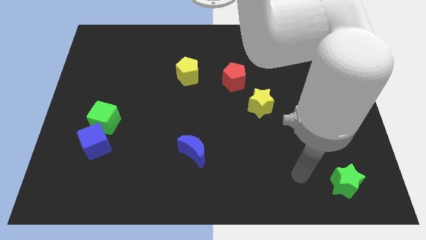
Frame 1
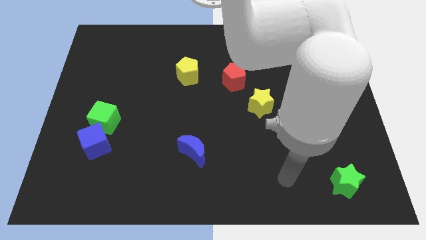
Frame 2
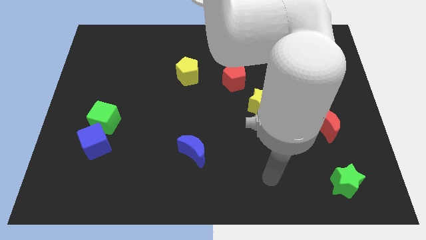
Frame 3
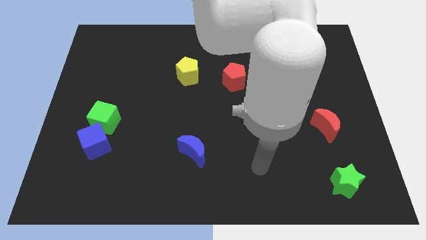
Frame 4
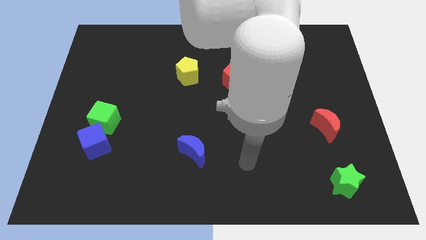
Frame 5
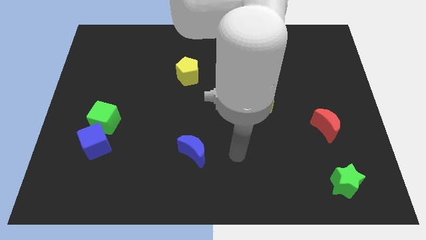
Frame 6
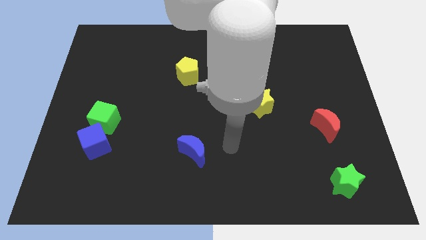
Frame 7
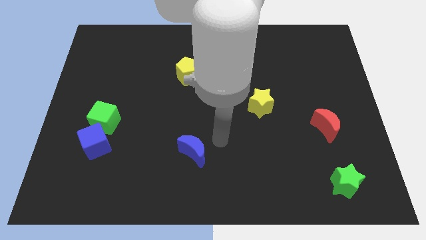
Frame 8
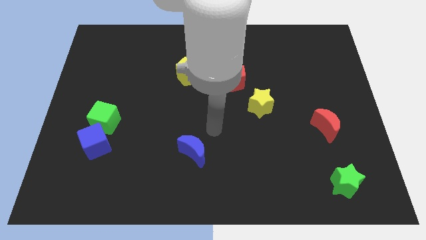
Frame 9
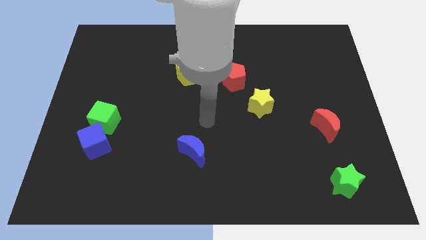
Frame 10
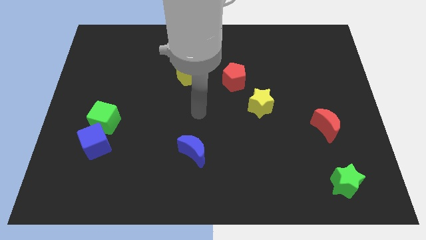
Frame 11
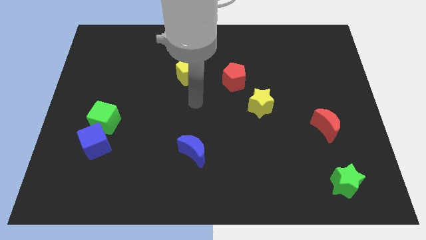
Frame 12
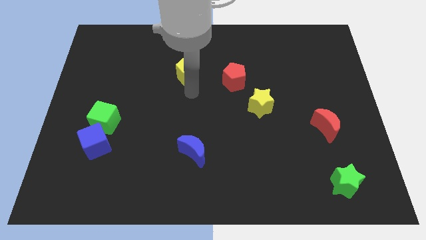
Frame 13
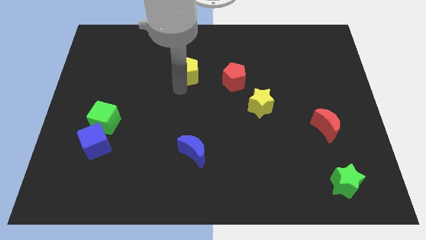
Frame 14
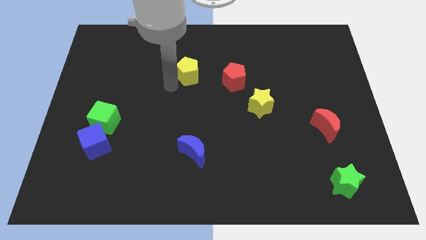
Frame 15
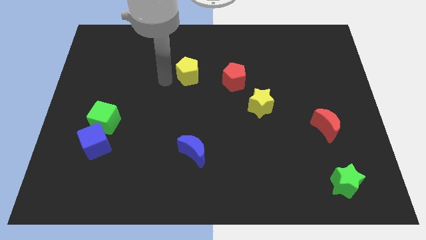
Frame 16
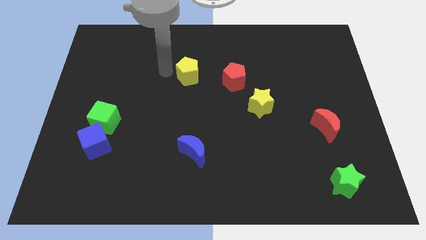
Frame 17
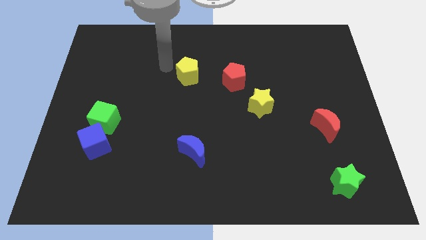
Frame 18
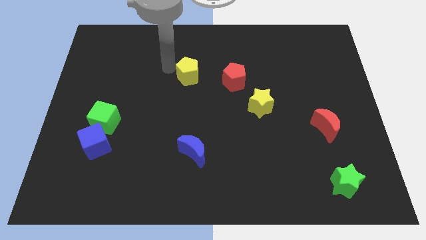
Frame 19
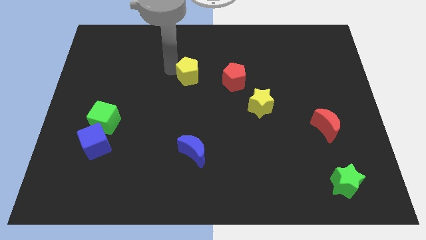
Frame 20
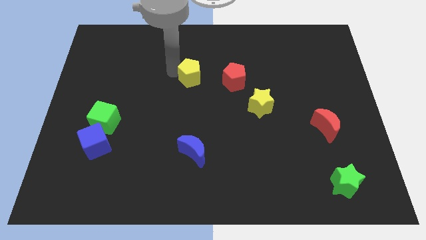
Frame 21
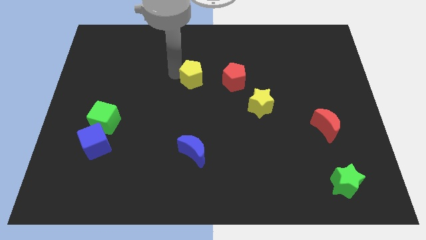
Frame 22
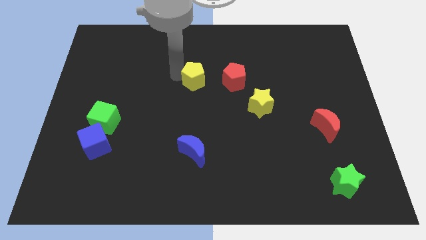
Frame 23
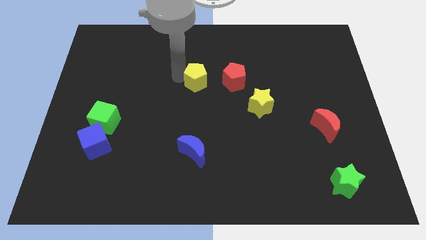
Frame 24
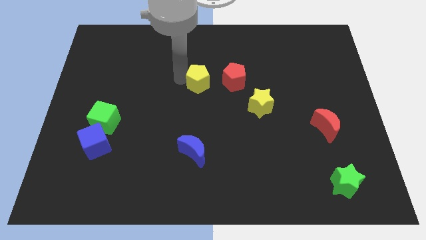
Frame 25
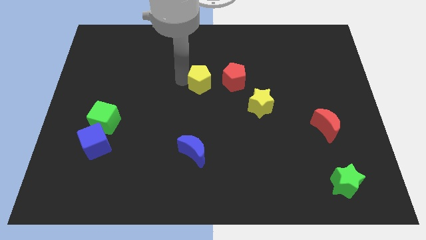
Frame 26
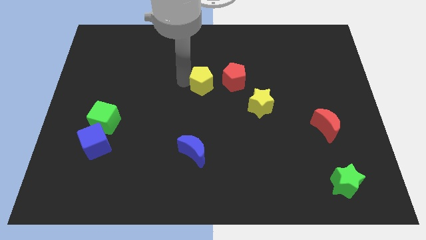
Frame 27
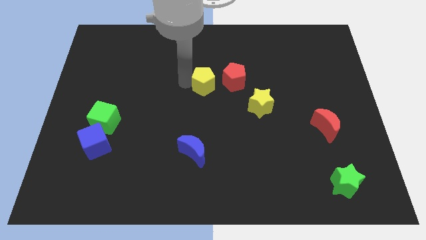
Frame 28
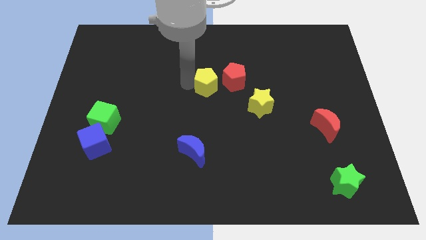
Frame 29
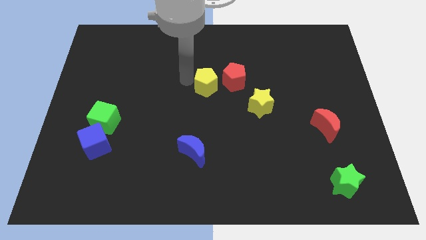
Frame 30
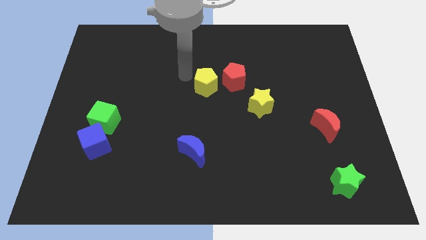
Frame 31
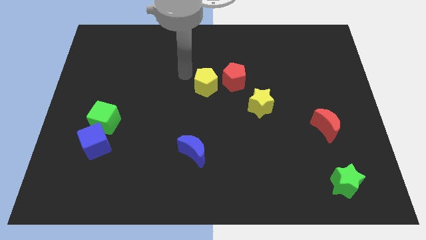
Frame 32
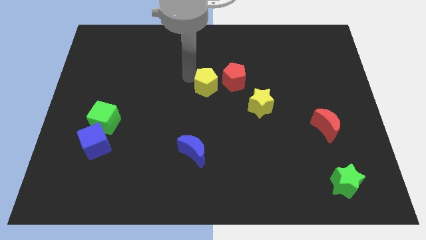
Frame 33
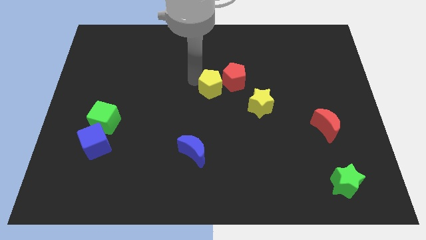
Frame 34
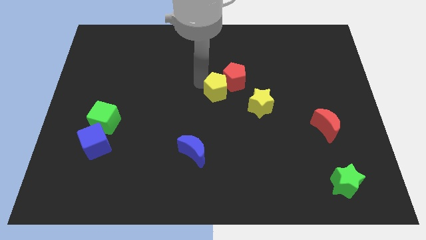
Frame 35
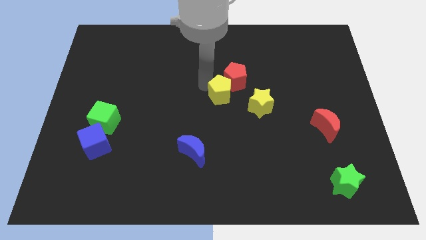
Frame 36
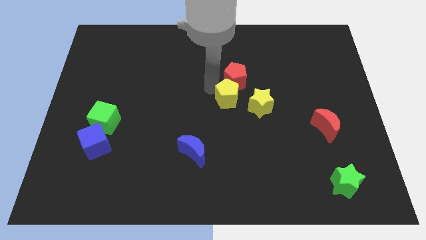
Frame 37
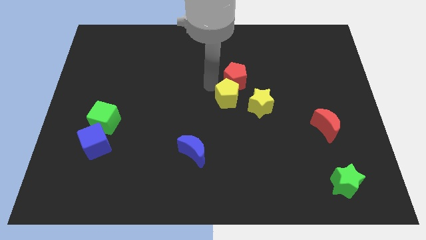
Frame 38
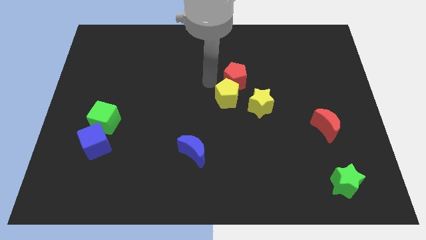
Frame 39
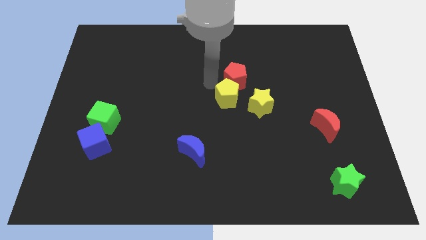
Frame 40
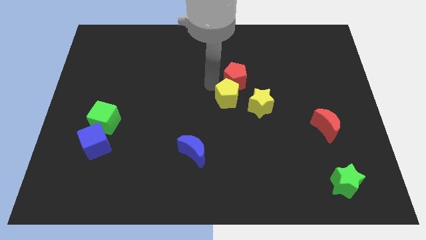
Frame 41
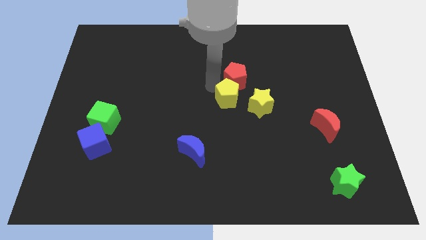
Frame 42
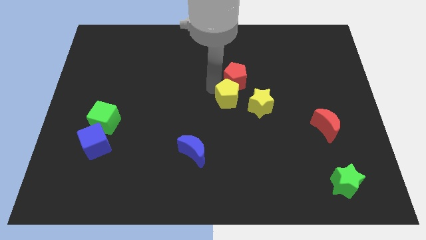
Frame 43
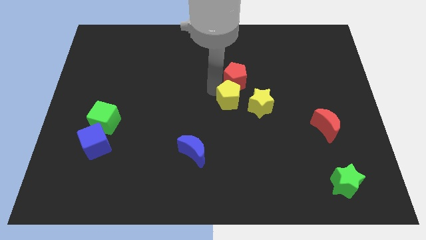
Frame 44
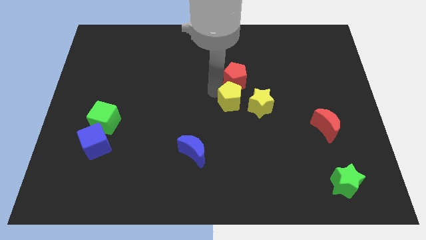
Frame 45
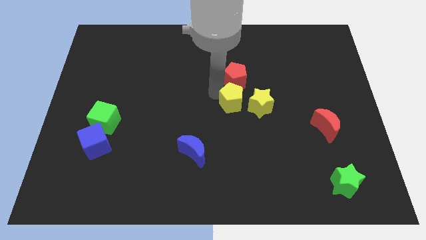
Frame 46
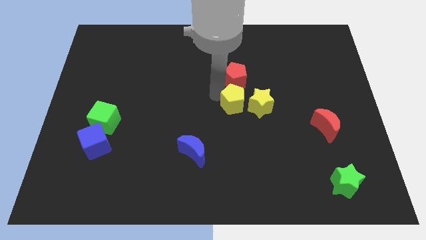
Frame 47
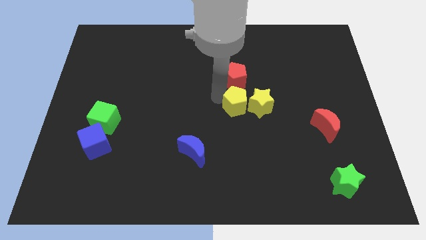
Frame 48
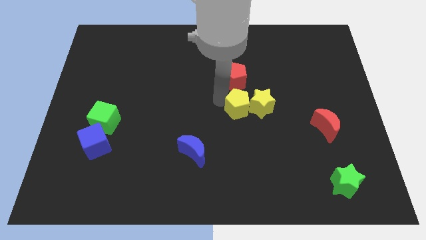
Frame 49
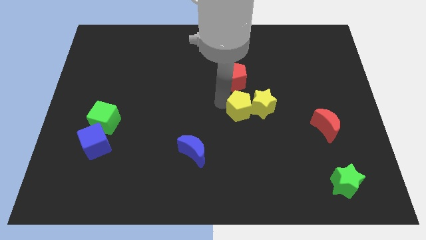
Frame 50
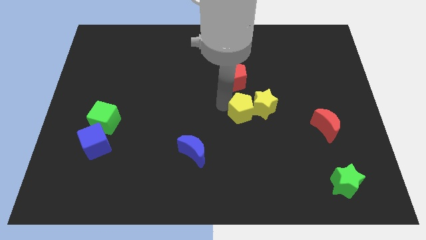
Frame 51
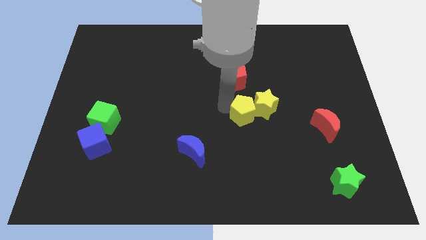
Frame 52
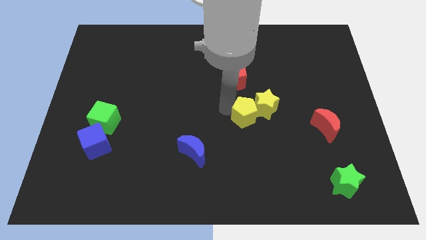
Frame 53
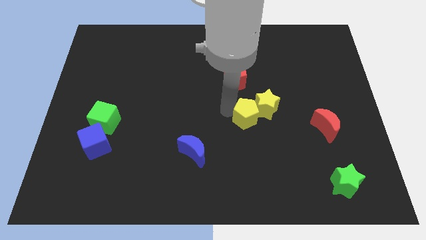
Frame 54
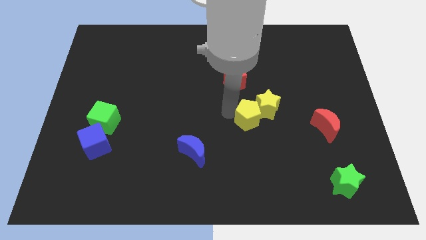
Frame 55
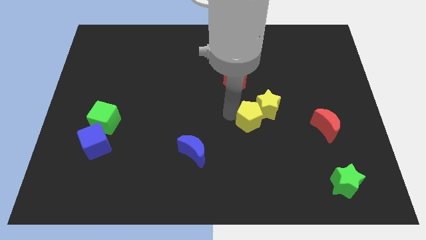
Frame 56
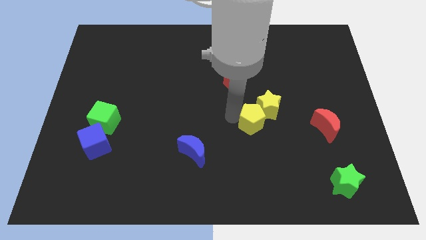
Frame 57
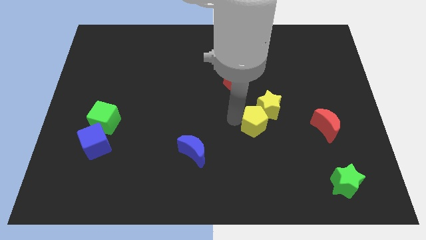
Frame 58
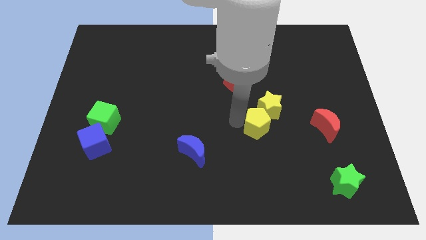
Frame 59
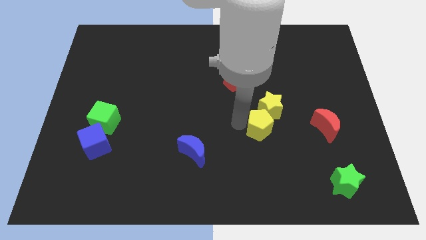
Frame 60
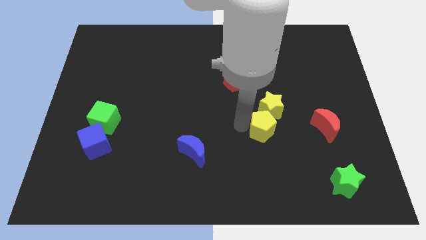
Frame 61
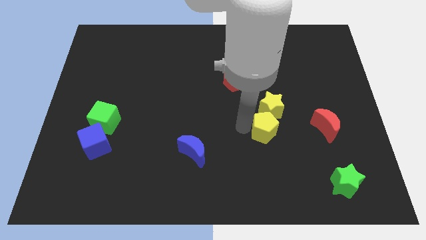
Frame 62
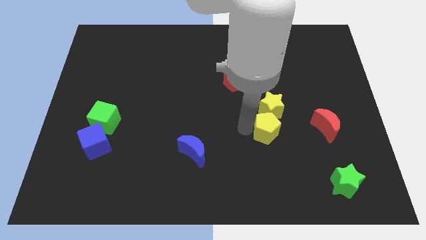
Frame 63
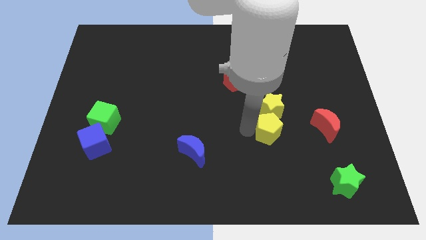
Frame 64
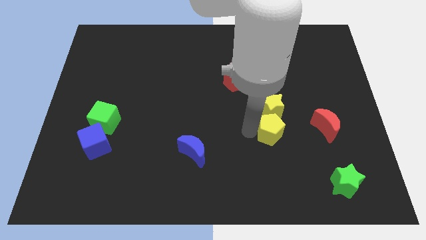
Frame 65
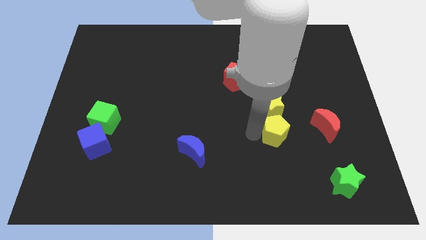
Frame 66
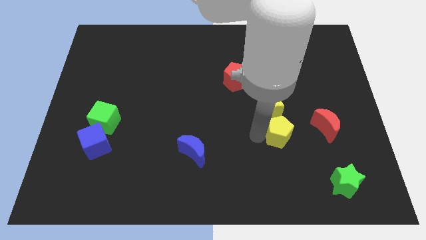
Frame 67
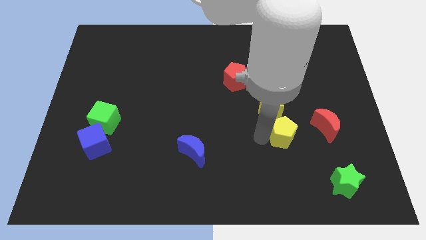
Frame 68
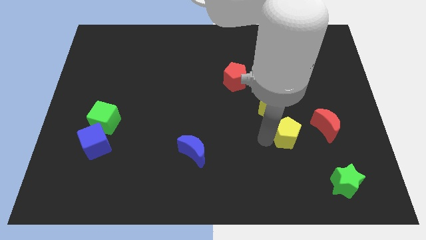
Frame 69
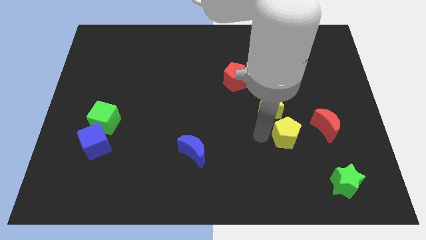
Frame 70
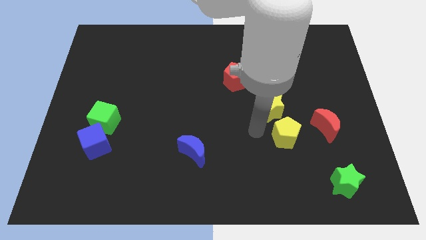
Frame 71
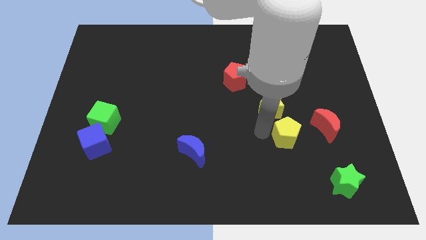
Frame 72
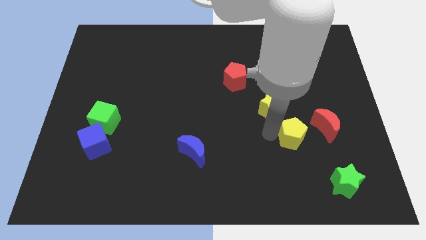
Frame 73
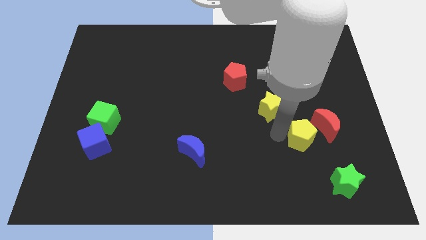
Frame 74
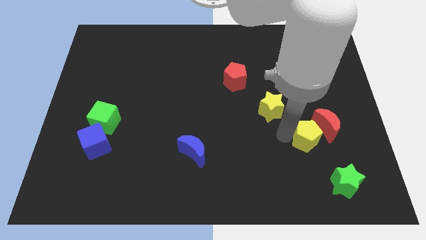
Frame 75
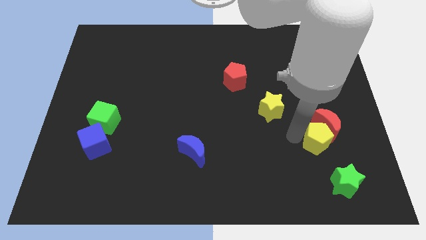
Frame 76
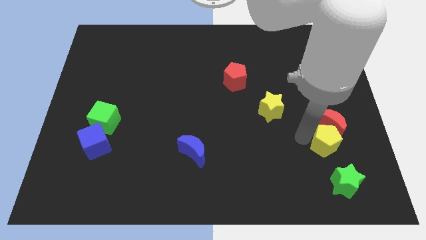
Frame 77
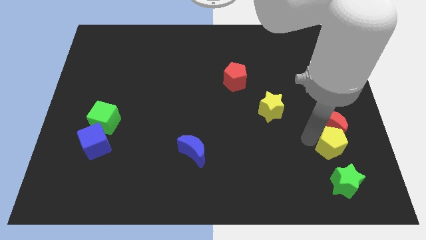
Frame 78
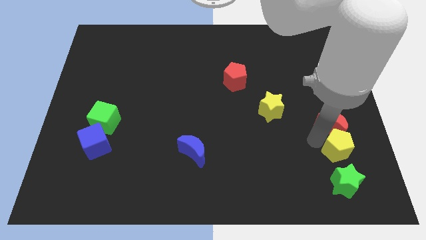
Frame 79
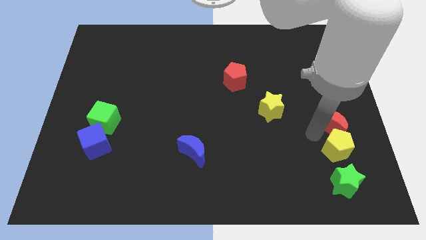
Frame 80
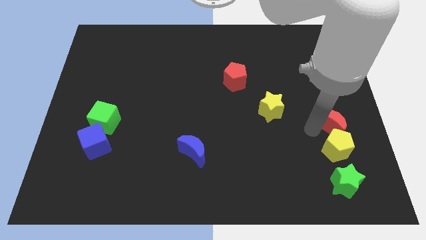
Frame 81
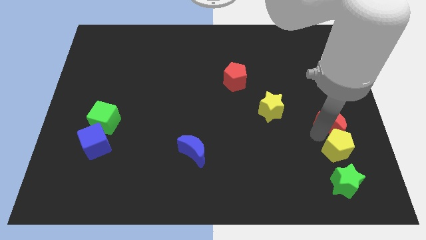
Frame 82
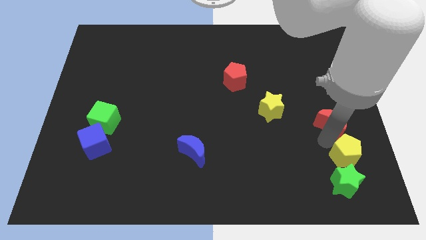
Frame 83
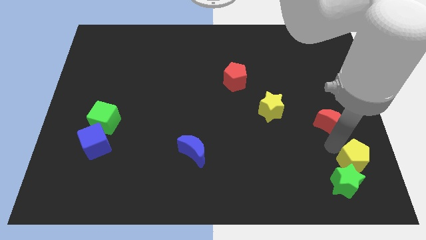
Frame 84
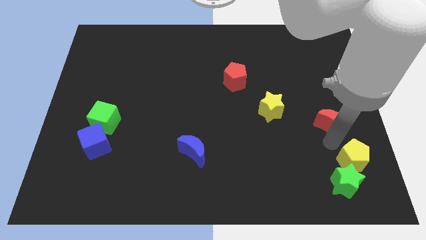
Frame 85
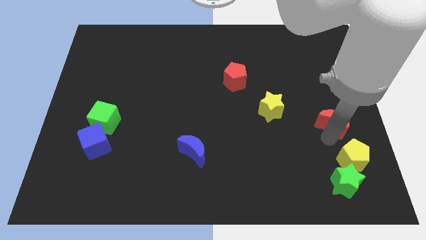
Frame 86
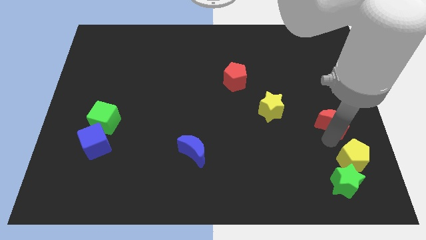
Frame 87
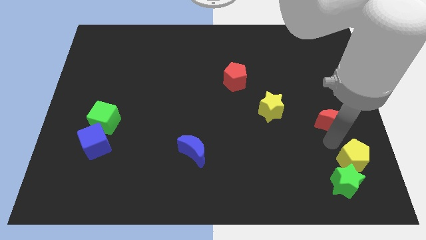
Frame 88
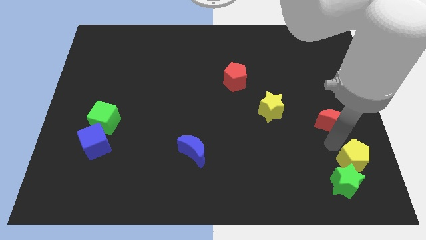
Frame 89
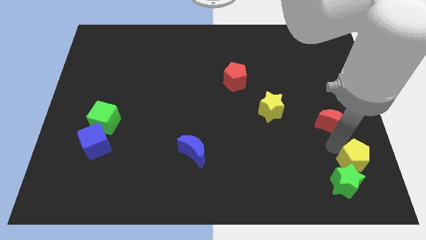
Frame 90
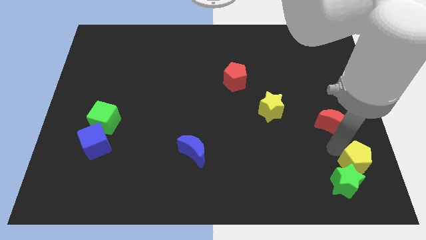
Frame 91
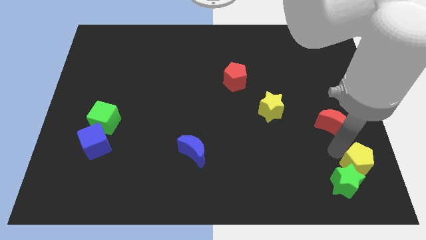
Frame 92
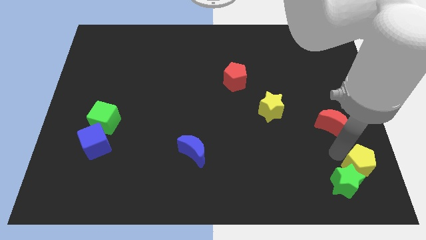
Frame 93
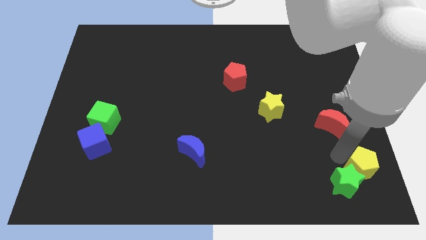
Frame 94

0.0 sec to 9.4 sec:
slide the yellow pentagon to the bottom right corner
